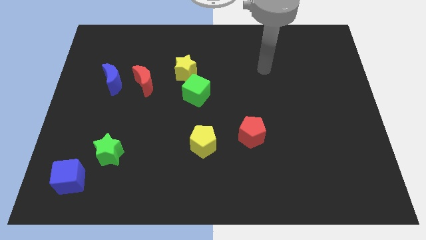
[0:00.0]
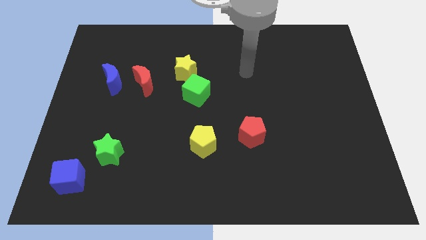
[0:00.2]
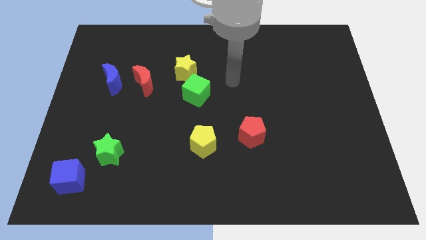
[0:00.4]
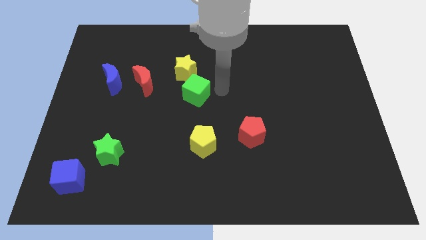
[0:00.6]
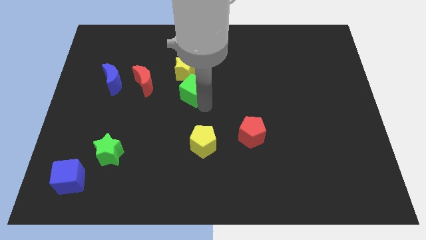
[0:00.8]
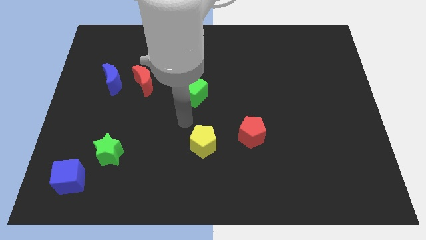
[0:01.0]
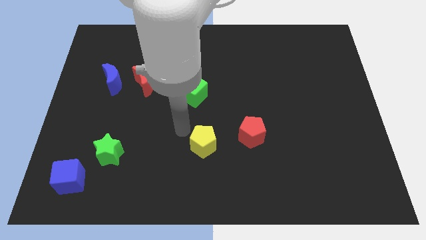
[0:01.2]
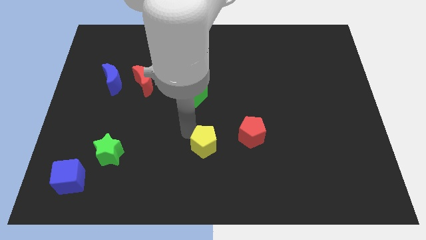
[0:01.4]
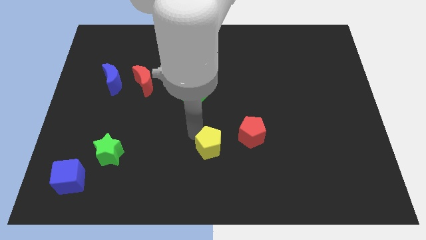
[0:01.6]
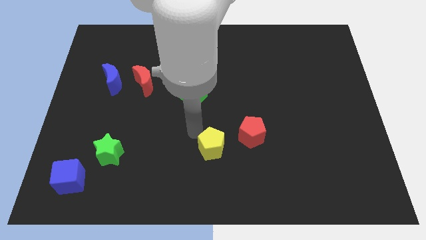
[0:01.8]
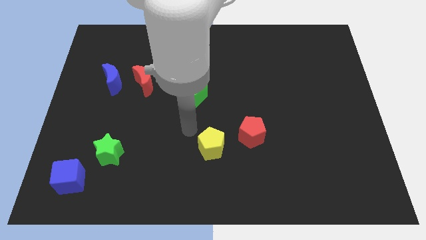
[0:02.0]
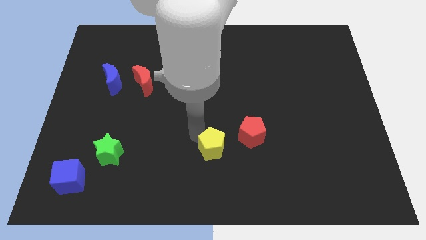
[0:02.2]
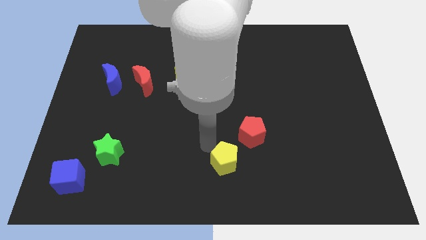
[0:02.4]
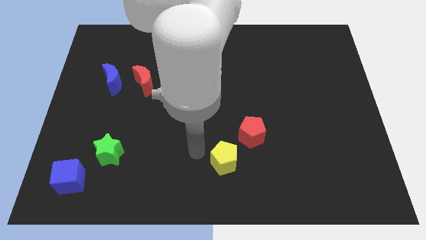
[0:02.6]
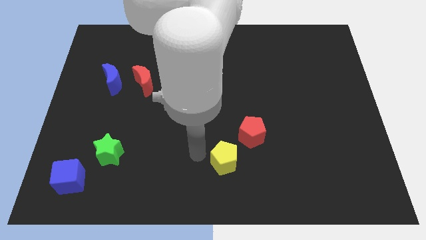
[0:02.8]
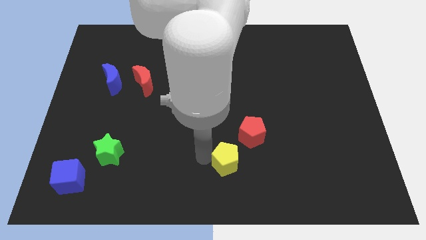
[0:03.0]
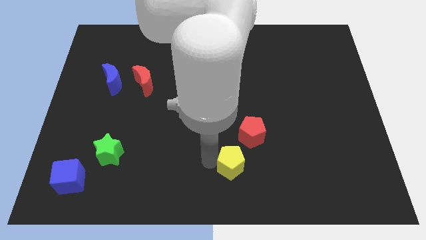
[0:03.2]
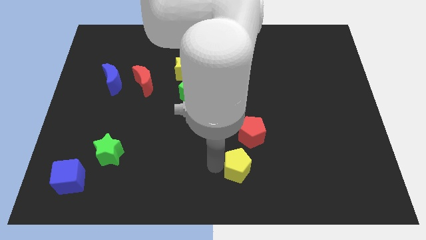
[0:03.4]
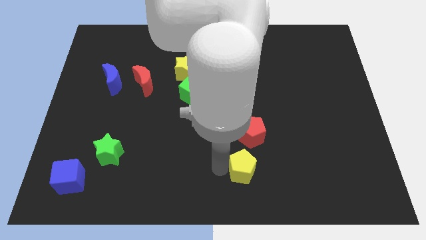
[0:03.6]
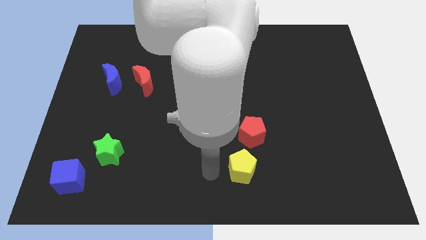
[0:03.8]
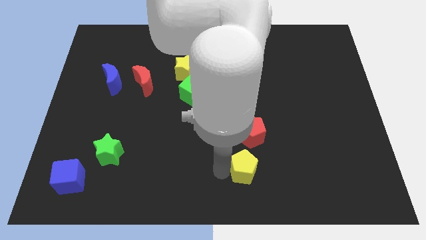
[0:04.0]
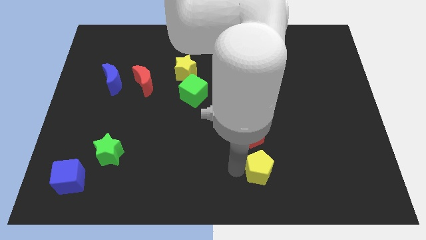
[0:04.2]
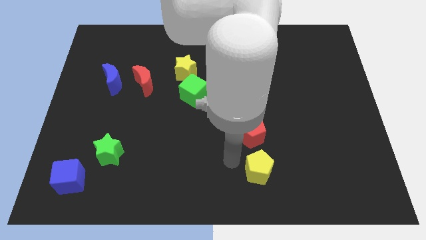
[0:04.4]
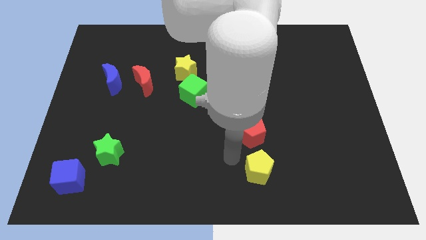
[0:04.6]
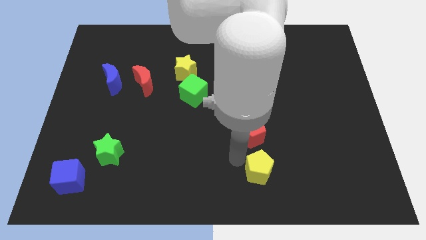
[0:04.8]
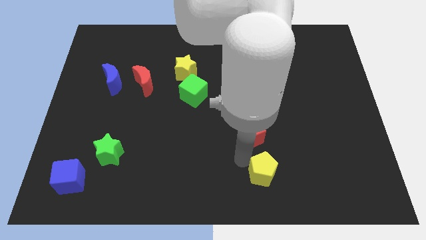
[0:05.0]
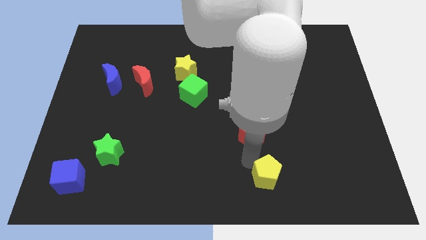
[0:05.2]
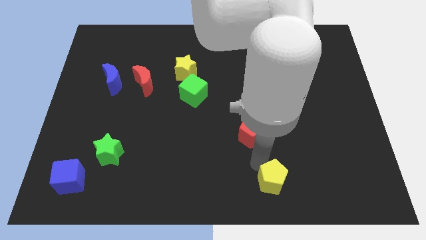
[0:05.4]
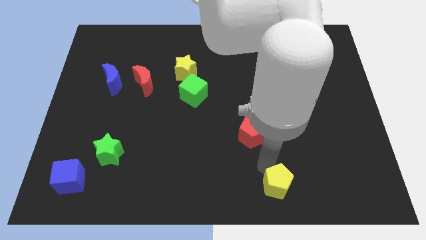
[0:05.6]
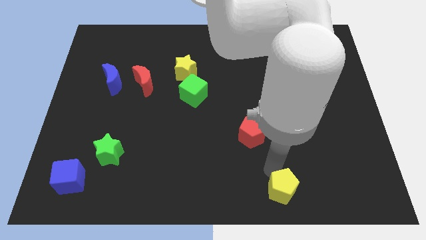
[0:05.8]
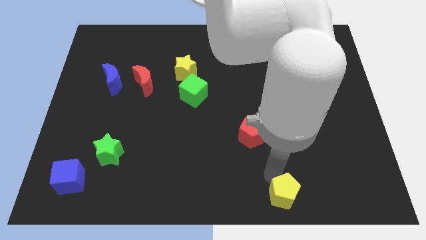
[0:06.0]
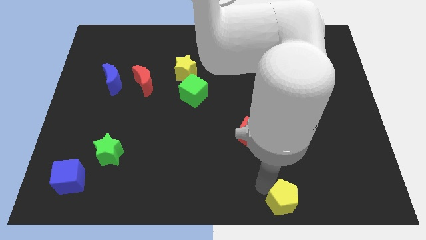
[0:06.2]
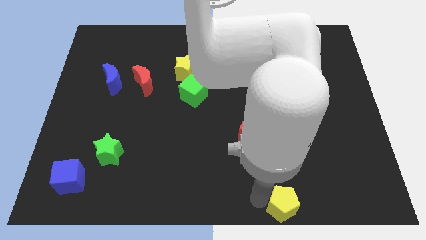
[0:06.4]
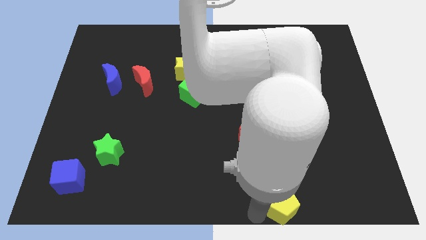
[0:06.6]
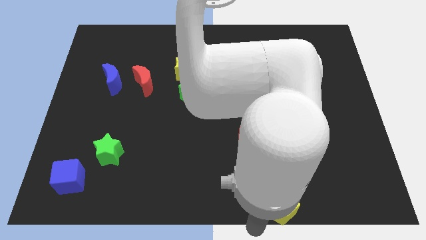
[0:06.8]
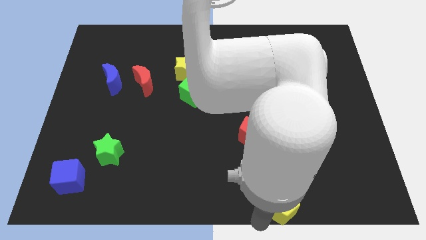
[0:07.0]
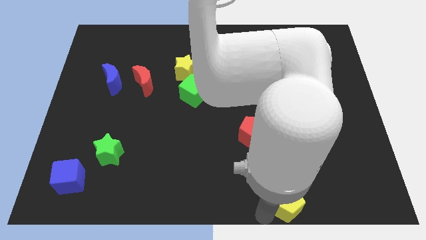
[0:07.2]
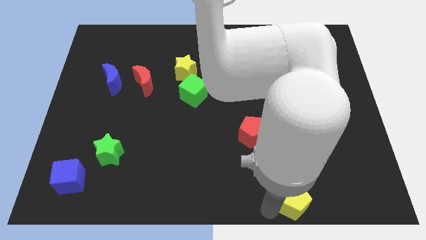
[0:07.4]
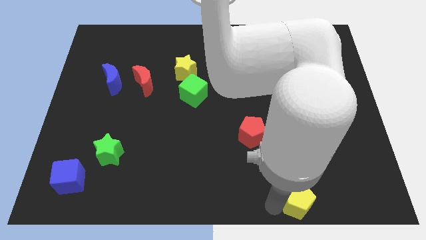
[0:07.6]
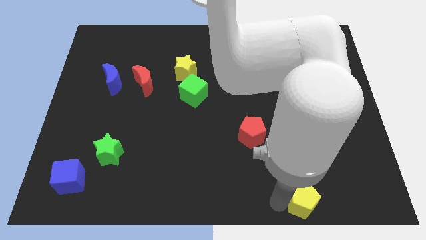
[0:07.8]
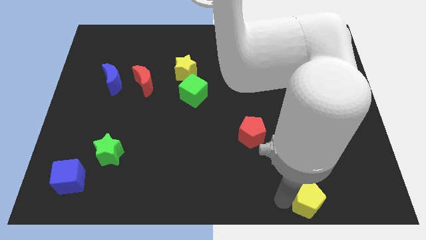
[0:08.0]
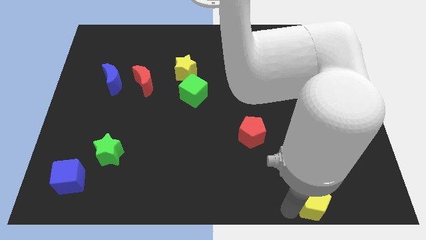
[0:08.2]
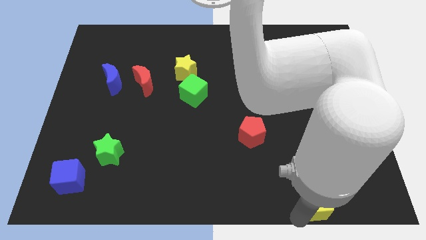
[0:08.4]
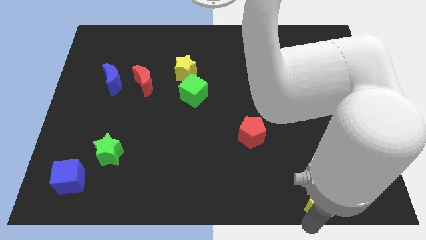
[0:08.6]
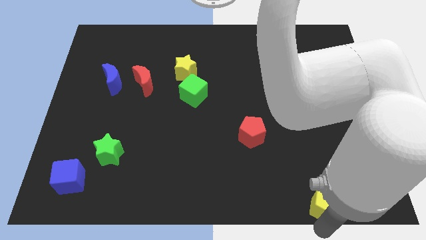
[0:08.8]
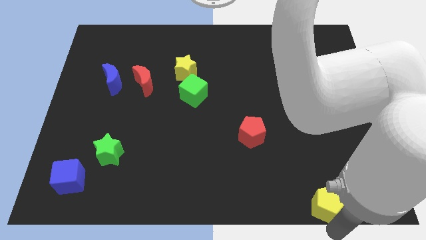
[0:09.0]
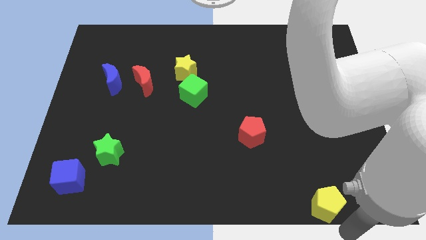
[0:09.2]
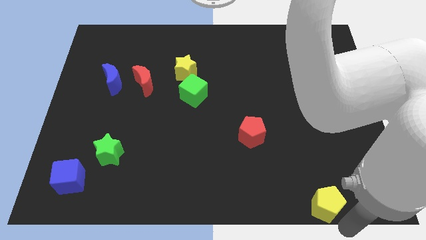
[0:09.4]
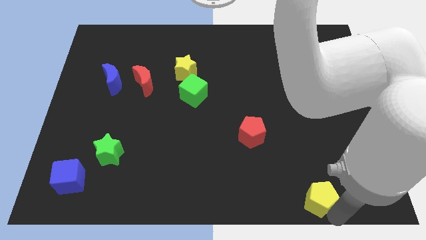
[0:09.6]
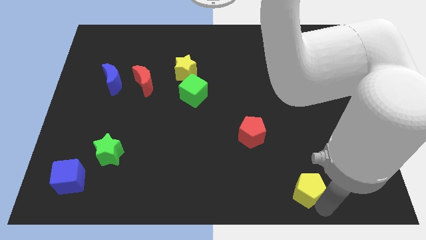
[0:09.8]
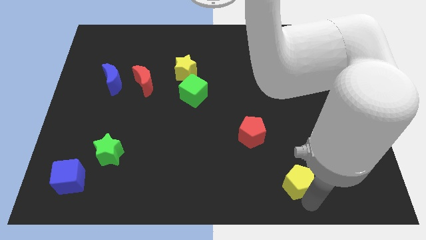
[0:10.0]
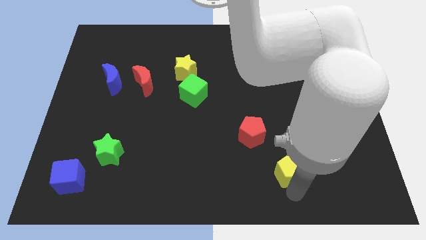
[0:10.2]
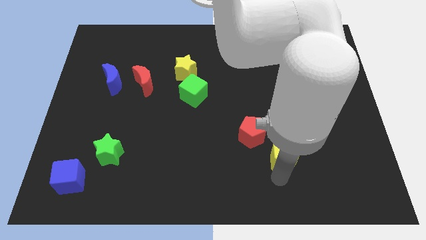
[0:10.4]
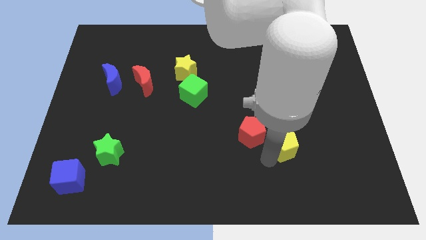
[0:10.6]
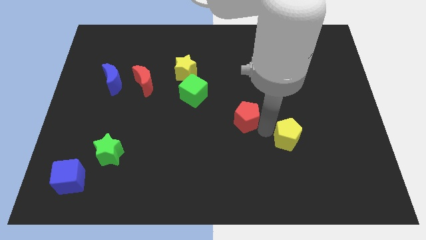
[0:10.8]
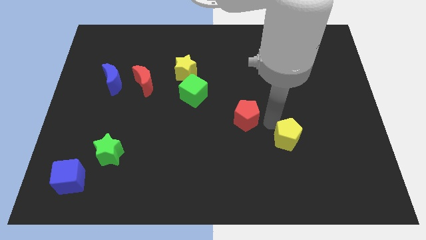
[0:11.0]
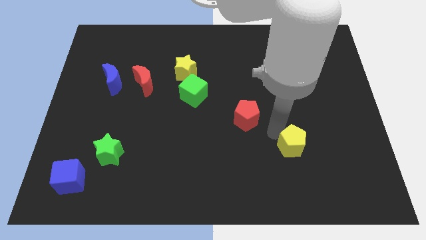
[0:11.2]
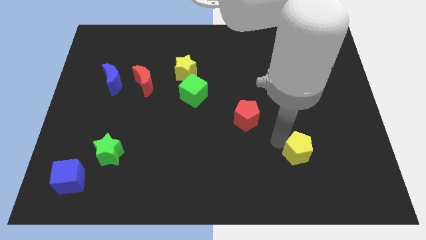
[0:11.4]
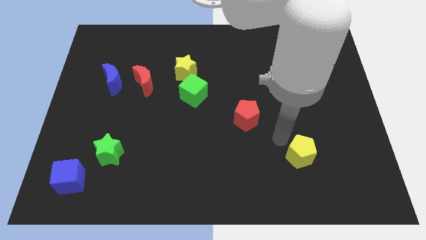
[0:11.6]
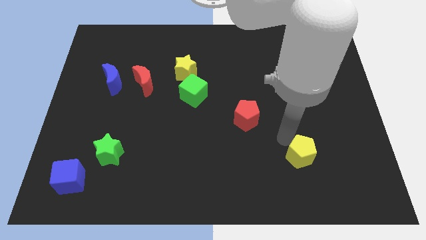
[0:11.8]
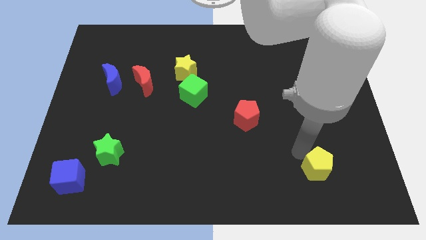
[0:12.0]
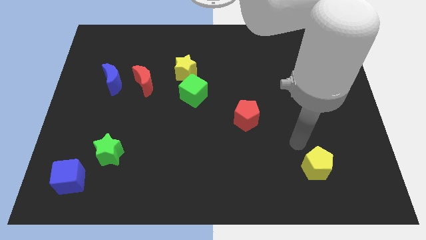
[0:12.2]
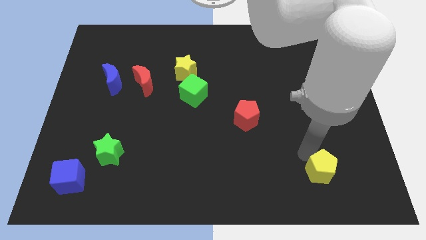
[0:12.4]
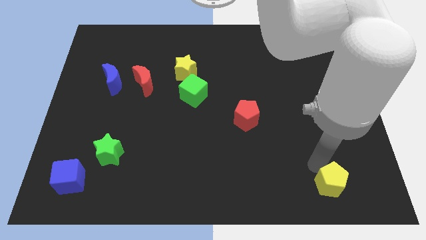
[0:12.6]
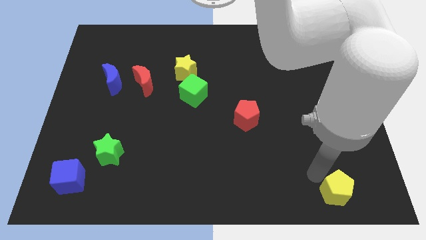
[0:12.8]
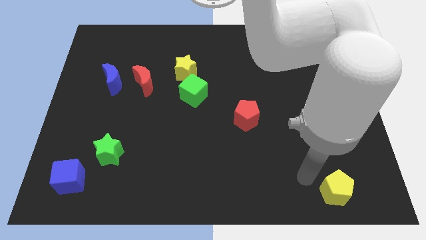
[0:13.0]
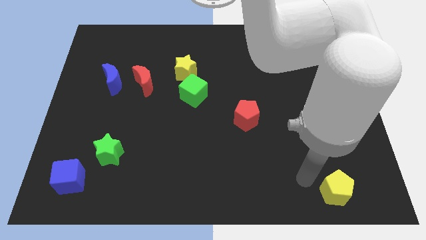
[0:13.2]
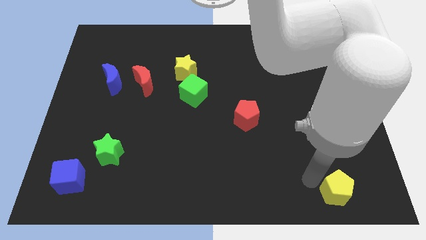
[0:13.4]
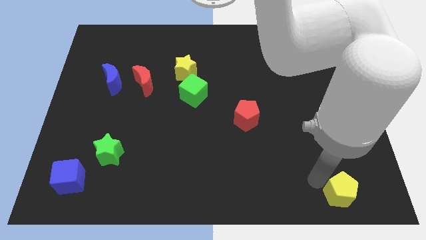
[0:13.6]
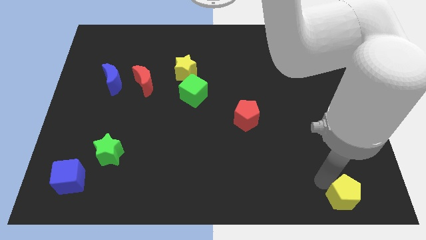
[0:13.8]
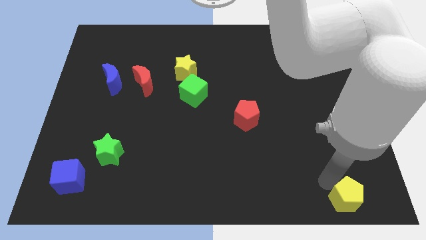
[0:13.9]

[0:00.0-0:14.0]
push the yellow pentagon to the bottom right corner

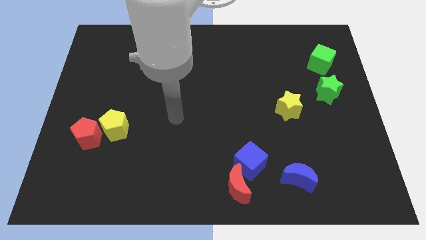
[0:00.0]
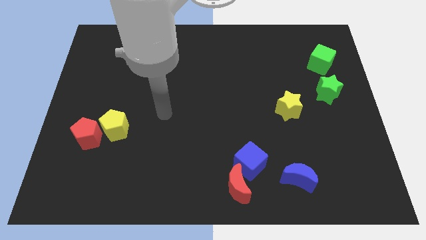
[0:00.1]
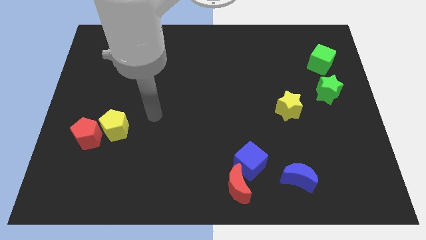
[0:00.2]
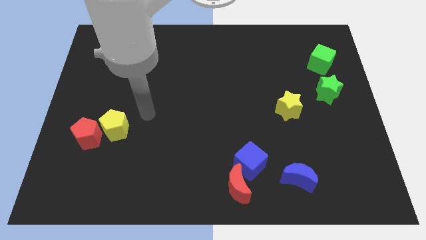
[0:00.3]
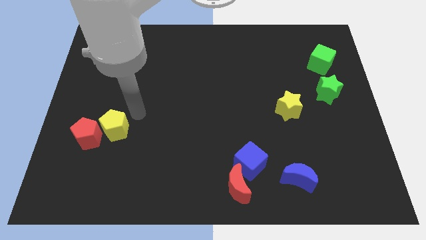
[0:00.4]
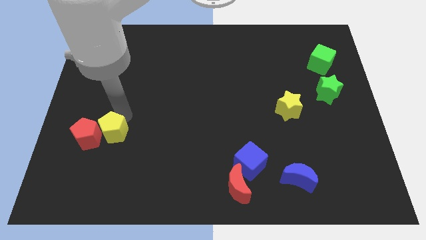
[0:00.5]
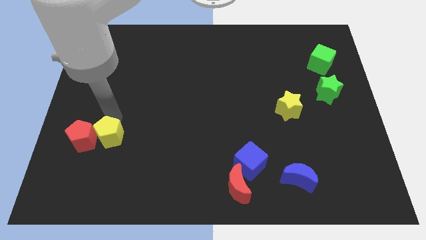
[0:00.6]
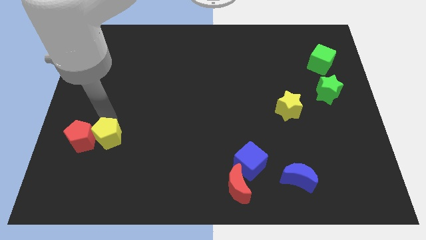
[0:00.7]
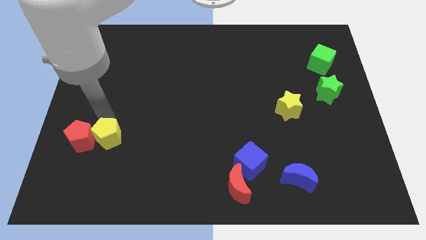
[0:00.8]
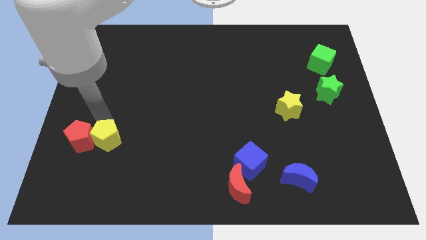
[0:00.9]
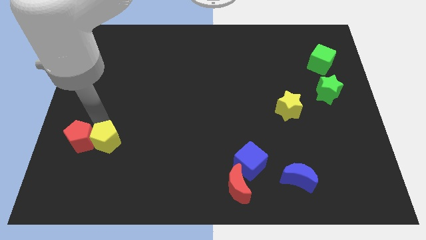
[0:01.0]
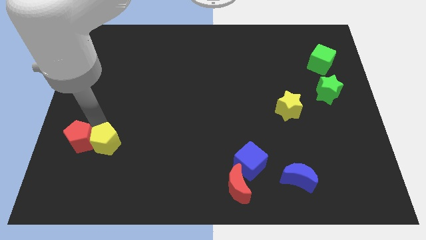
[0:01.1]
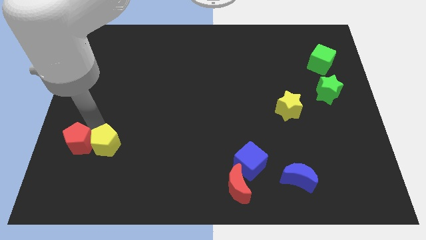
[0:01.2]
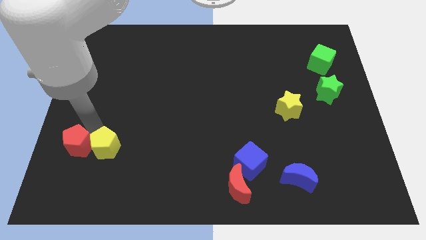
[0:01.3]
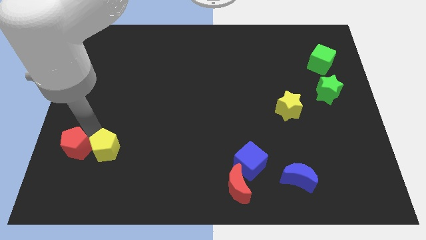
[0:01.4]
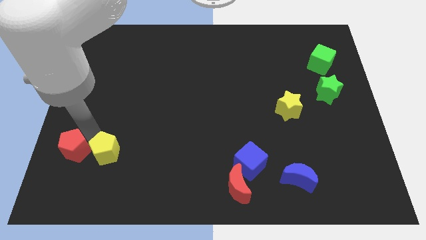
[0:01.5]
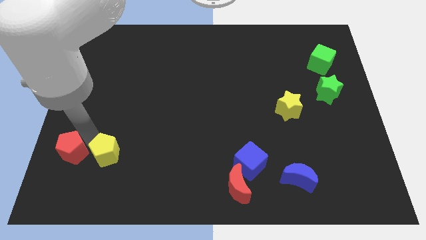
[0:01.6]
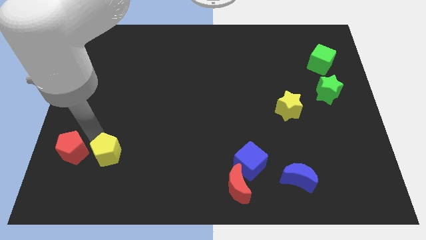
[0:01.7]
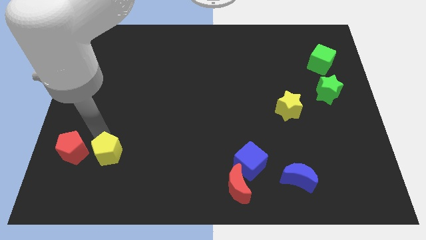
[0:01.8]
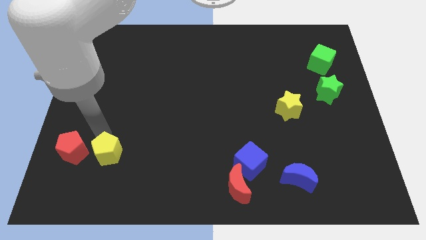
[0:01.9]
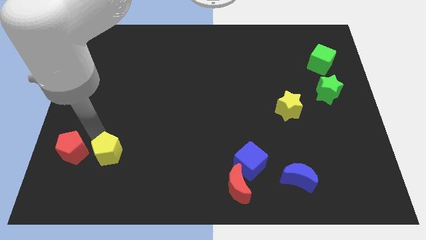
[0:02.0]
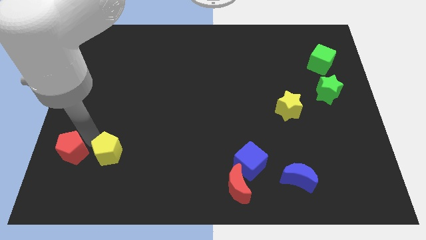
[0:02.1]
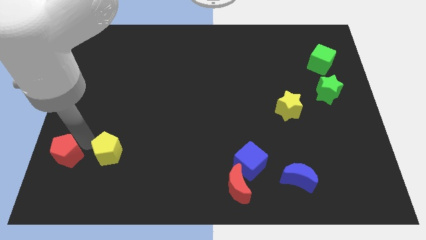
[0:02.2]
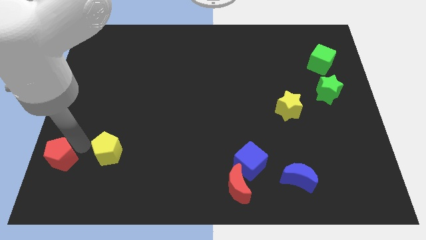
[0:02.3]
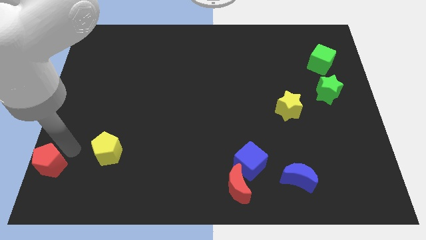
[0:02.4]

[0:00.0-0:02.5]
put the red pentagon to the bottom left of the board
